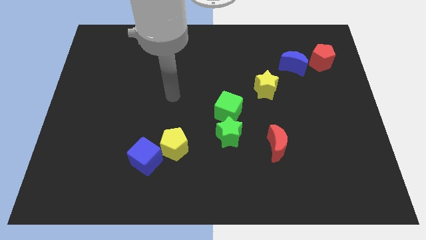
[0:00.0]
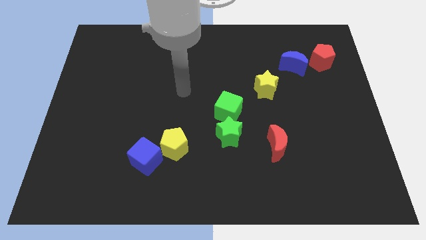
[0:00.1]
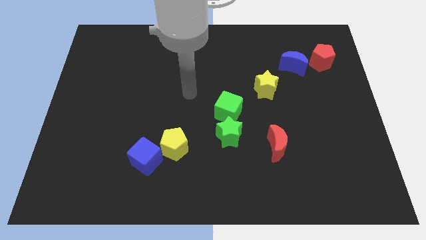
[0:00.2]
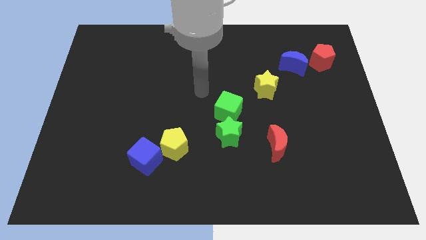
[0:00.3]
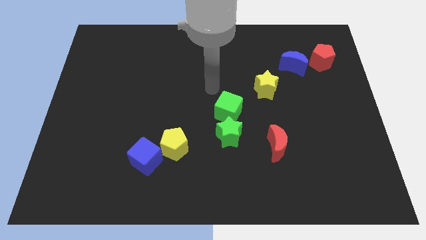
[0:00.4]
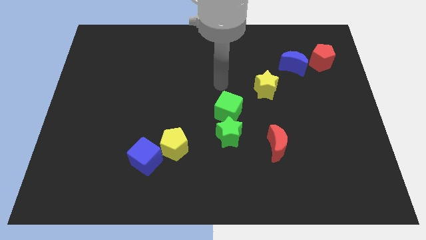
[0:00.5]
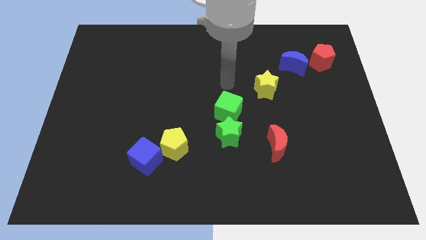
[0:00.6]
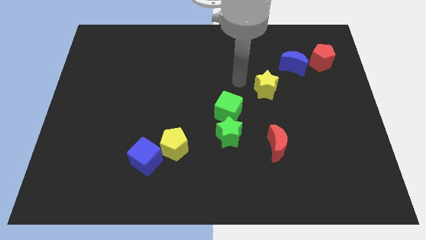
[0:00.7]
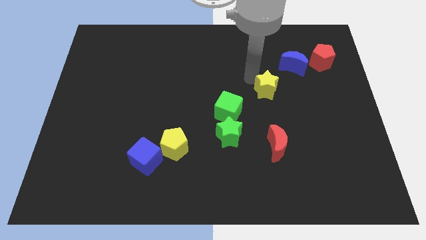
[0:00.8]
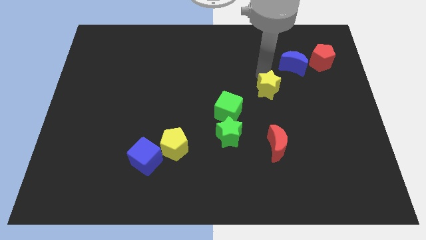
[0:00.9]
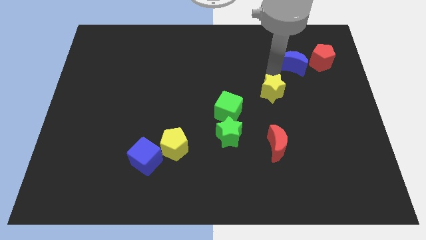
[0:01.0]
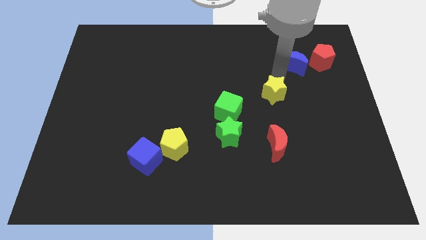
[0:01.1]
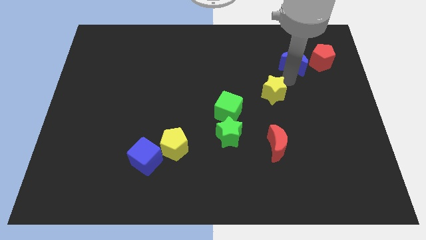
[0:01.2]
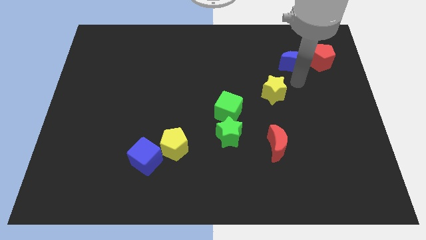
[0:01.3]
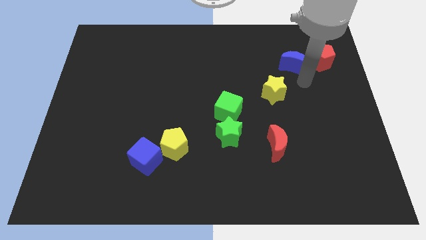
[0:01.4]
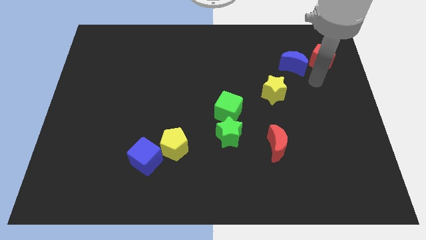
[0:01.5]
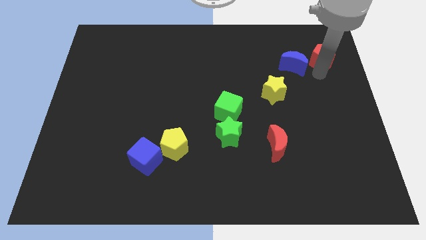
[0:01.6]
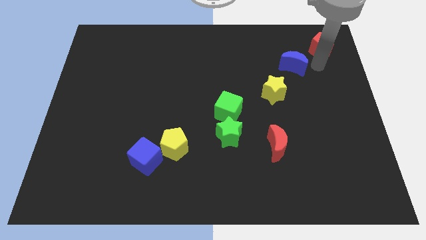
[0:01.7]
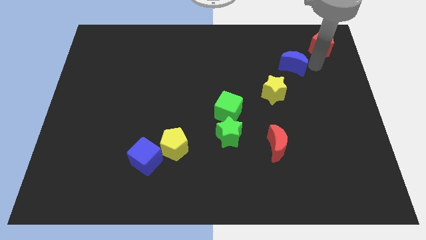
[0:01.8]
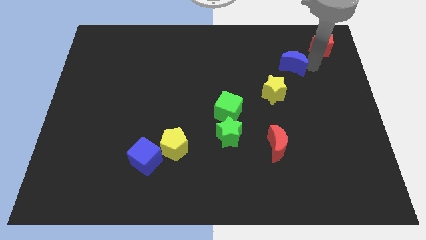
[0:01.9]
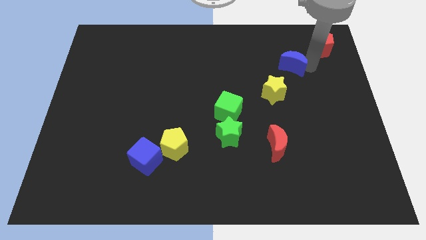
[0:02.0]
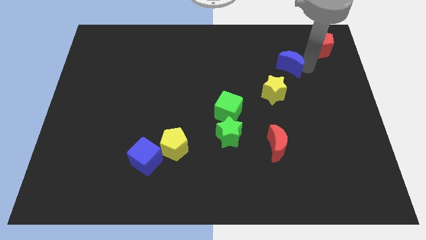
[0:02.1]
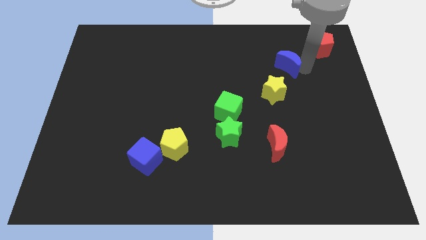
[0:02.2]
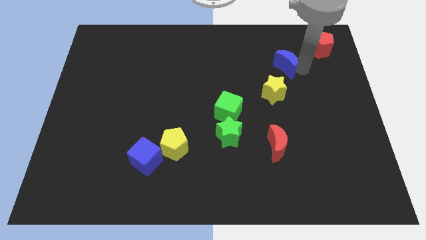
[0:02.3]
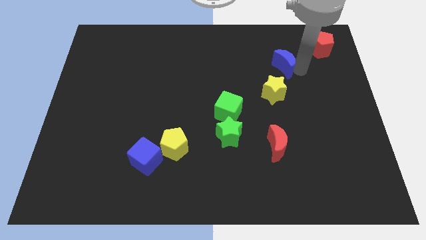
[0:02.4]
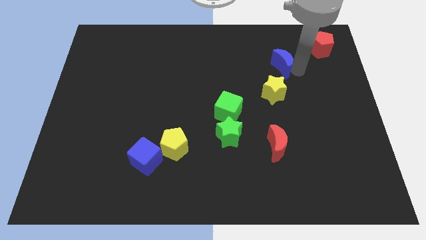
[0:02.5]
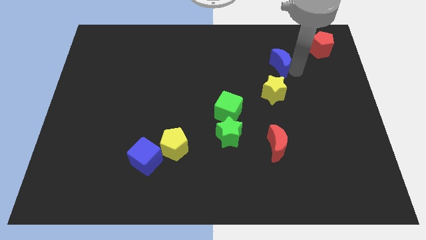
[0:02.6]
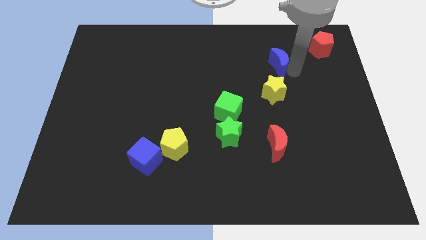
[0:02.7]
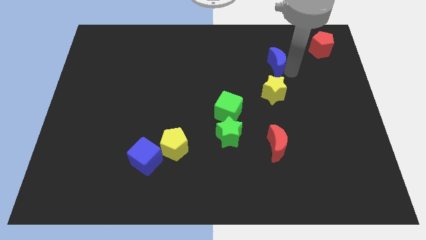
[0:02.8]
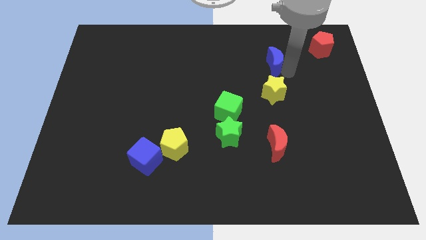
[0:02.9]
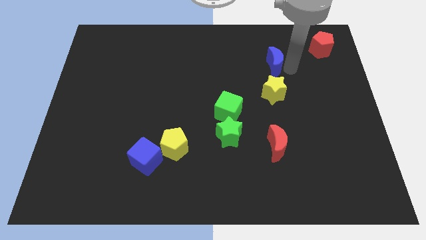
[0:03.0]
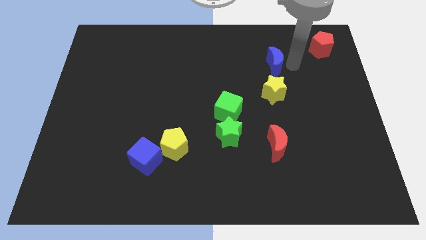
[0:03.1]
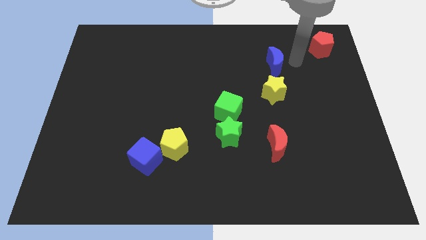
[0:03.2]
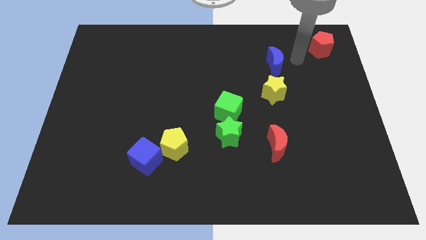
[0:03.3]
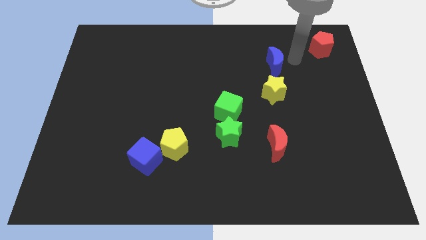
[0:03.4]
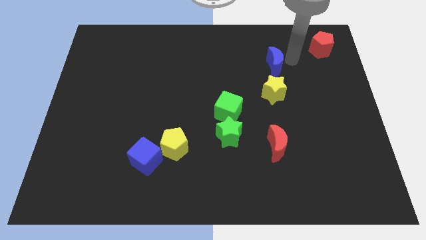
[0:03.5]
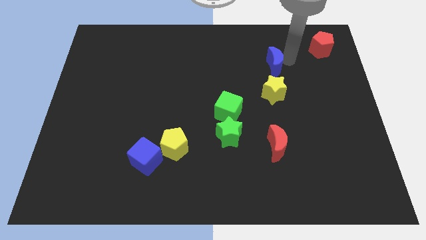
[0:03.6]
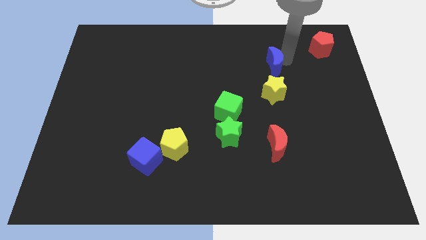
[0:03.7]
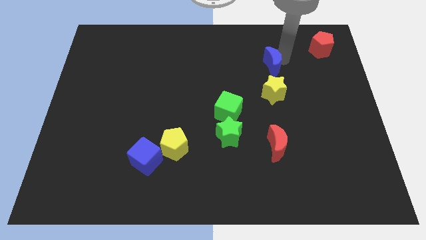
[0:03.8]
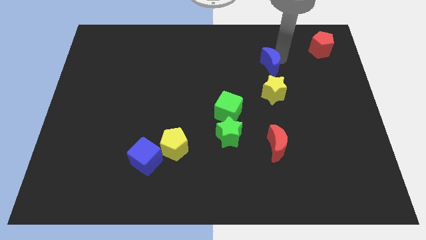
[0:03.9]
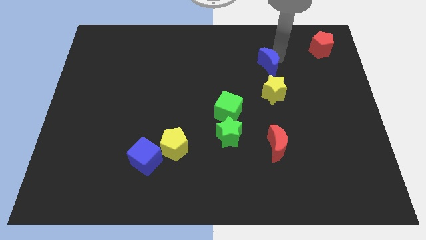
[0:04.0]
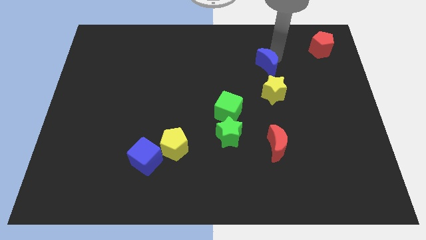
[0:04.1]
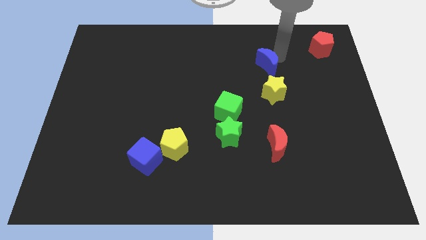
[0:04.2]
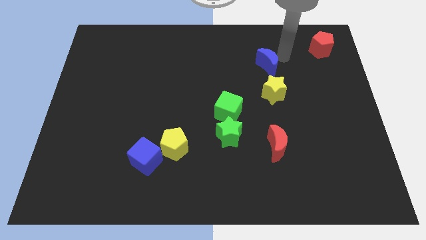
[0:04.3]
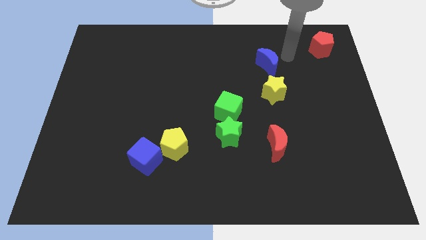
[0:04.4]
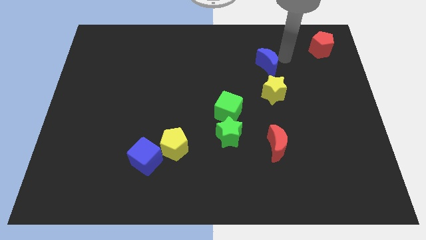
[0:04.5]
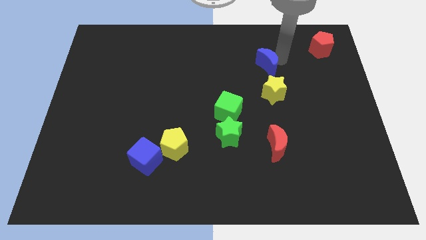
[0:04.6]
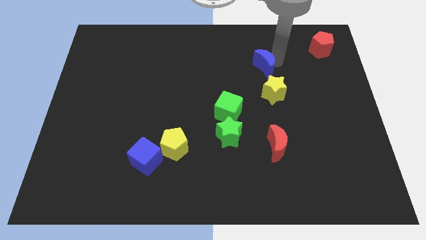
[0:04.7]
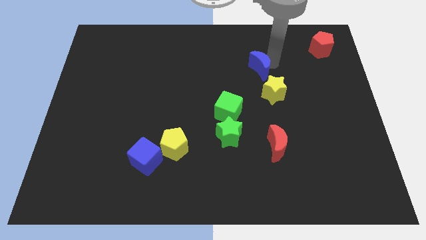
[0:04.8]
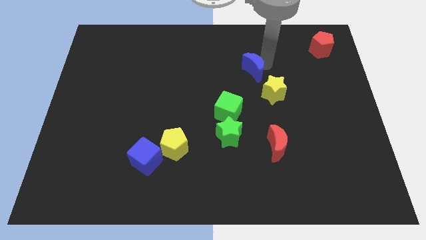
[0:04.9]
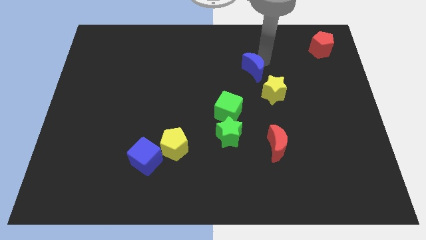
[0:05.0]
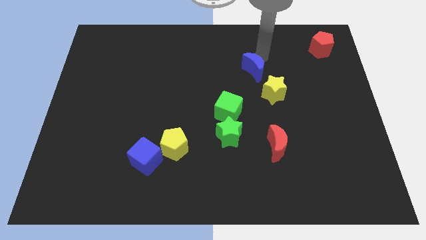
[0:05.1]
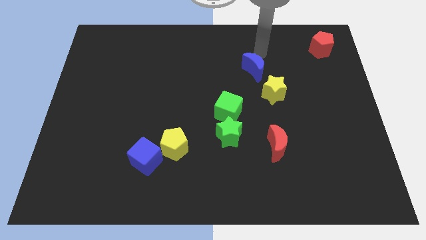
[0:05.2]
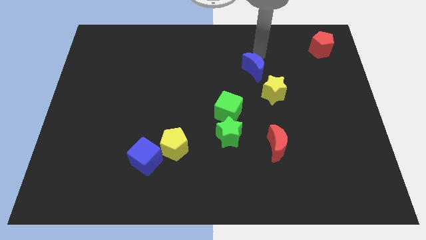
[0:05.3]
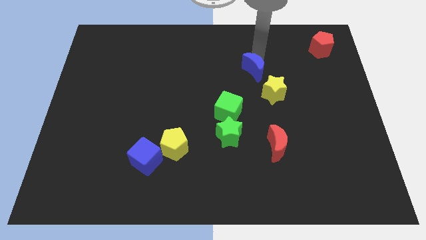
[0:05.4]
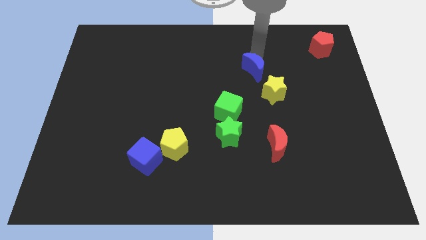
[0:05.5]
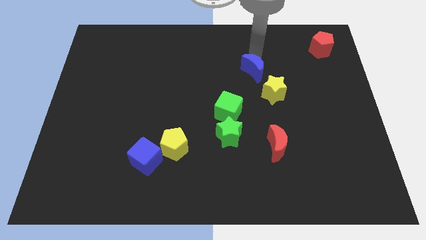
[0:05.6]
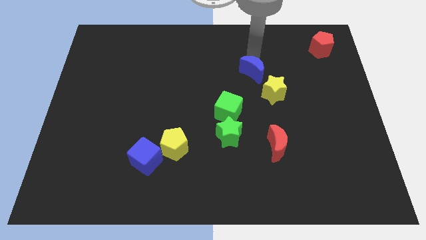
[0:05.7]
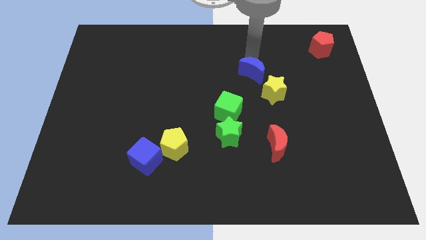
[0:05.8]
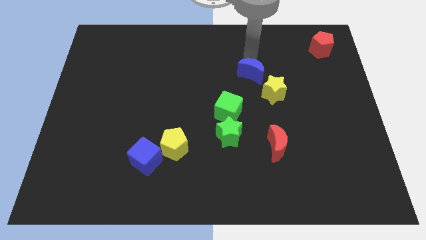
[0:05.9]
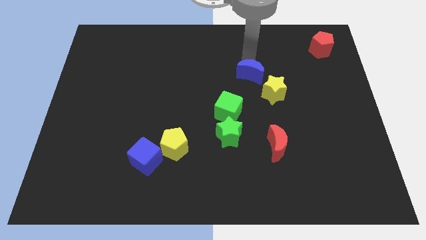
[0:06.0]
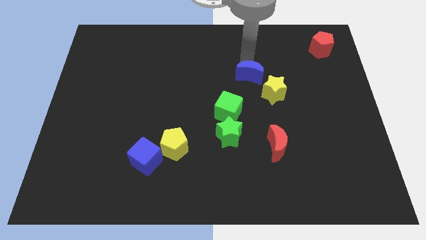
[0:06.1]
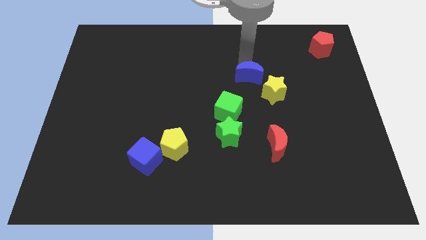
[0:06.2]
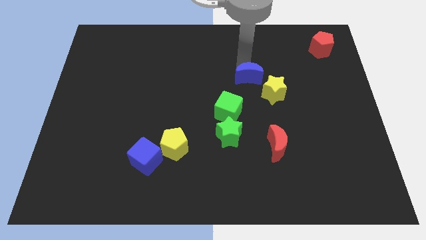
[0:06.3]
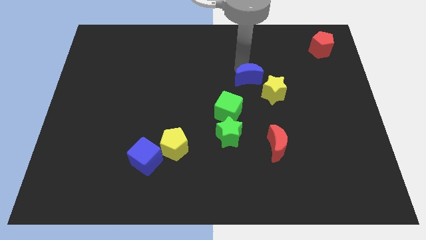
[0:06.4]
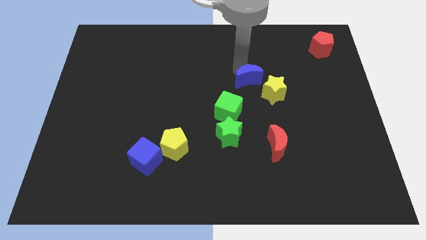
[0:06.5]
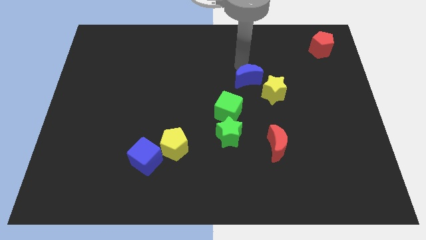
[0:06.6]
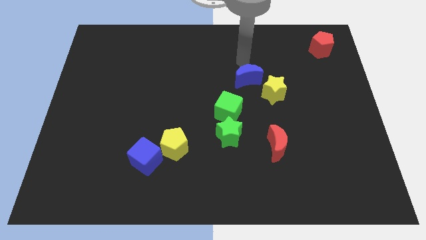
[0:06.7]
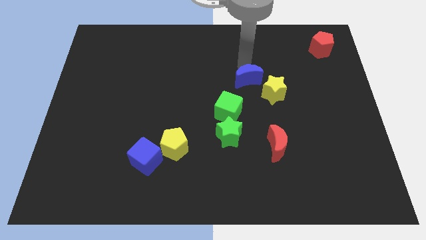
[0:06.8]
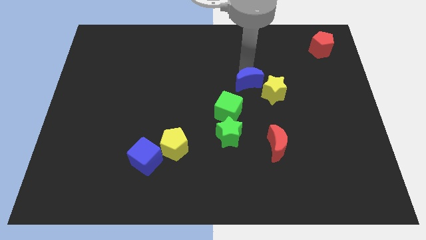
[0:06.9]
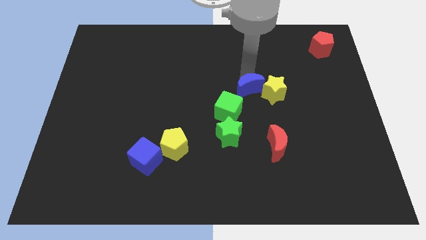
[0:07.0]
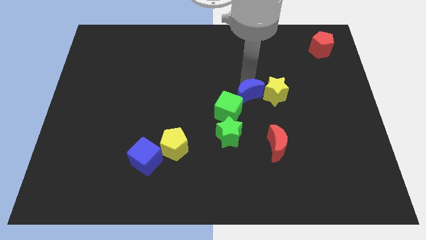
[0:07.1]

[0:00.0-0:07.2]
slide the blue moon diagonally down and to the left of the yellow star
